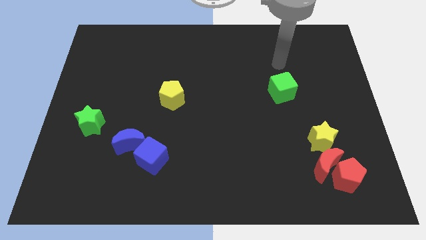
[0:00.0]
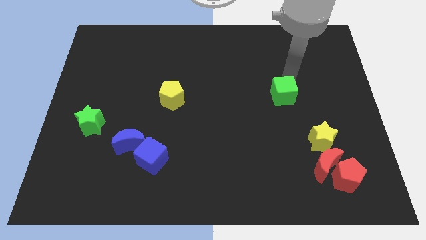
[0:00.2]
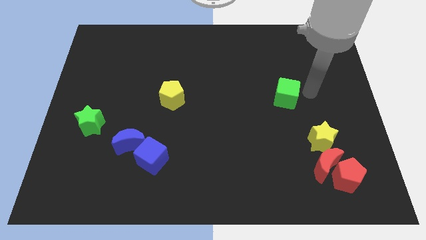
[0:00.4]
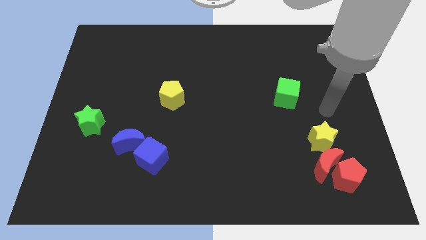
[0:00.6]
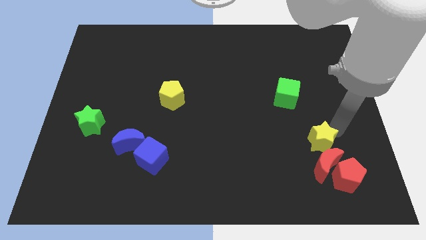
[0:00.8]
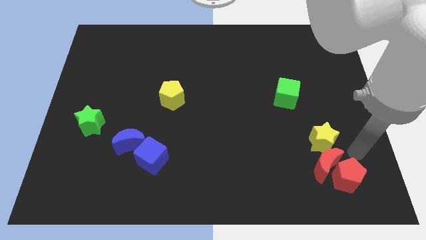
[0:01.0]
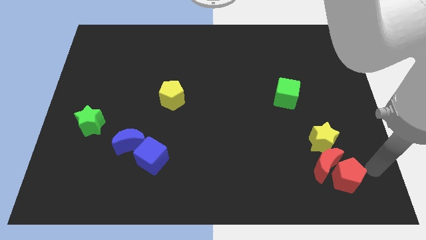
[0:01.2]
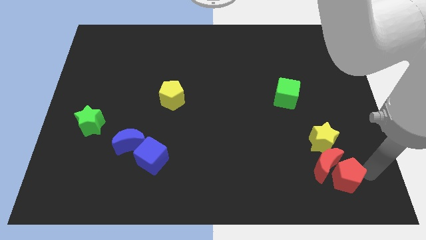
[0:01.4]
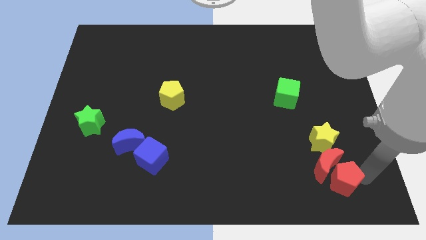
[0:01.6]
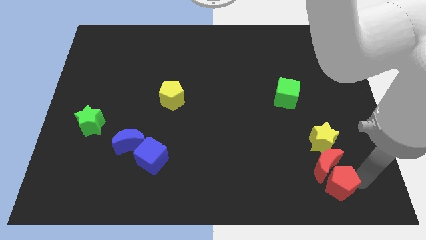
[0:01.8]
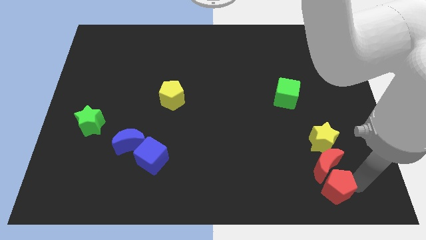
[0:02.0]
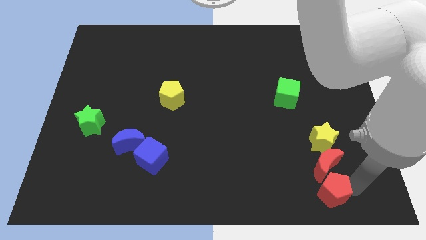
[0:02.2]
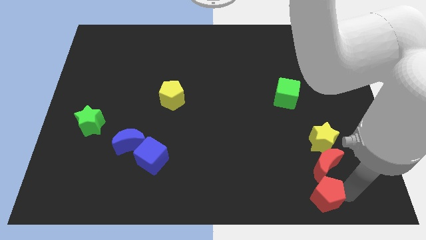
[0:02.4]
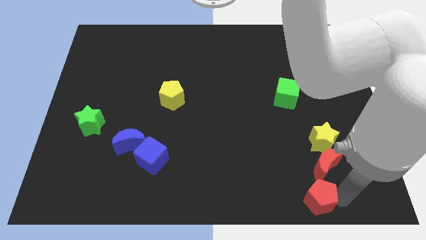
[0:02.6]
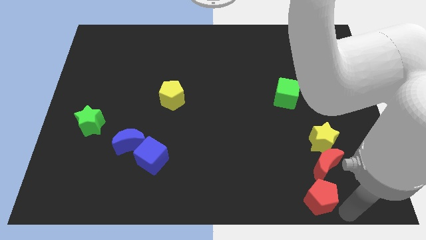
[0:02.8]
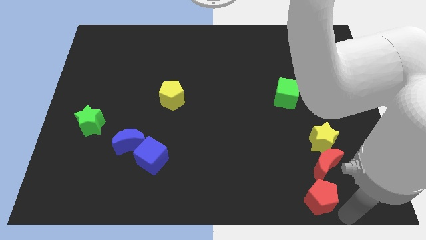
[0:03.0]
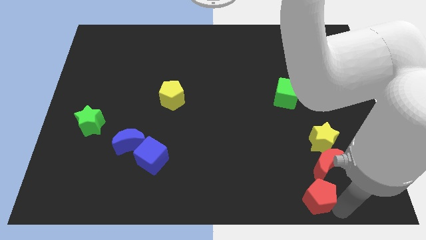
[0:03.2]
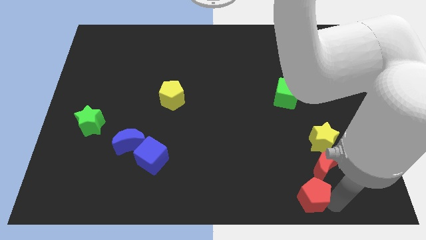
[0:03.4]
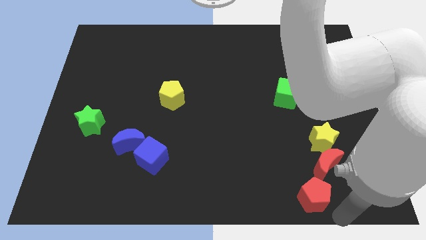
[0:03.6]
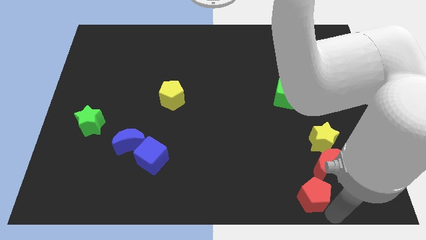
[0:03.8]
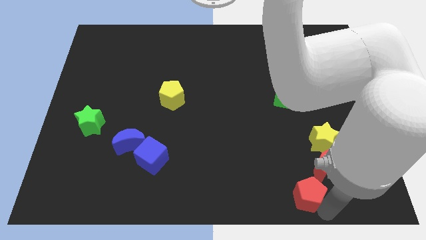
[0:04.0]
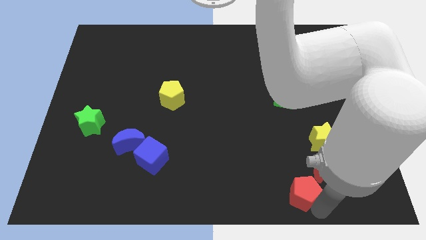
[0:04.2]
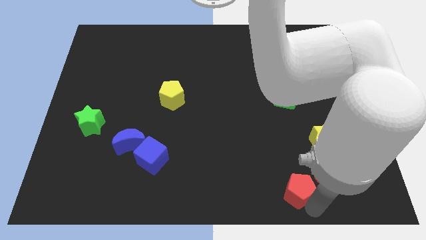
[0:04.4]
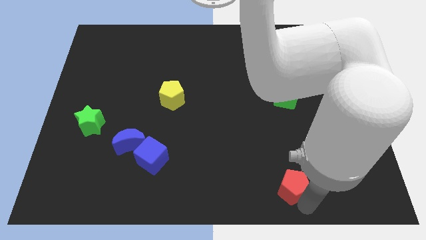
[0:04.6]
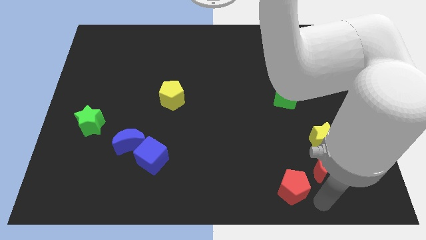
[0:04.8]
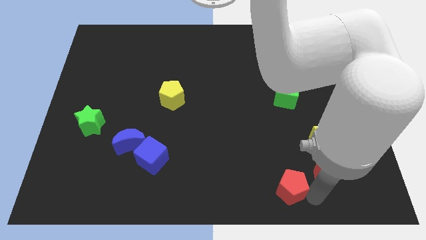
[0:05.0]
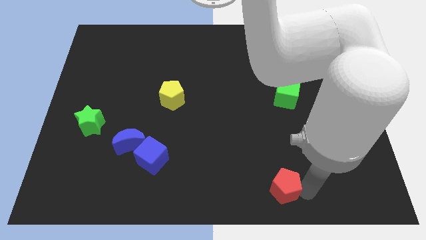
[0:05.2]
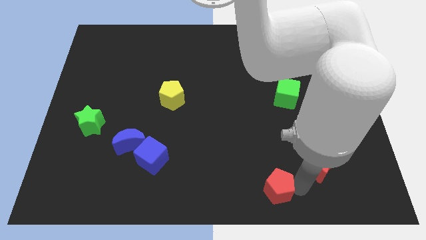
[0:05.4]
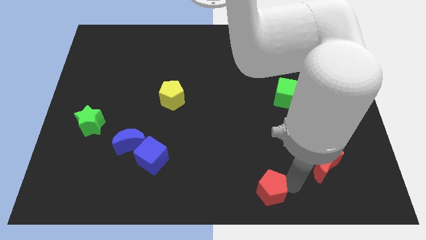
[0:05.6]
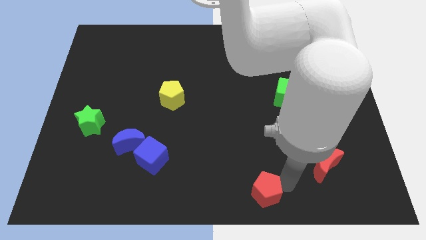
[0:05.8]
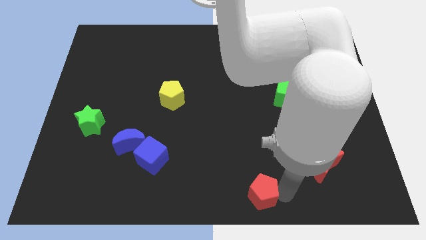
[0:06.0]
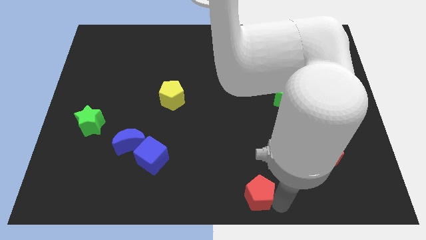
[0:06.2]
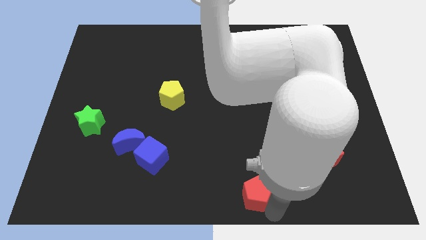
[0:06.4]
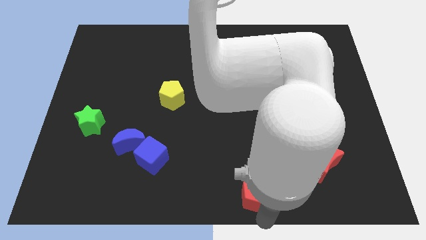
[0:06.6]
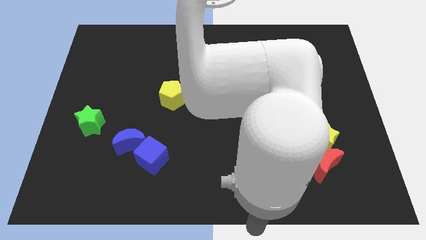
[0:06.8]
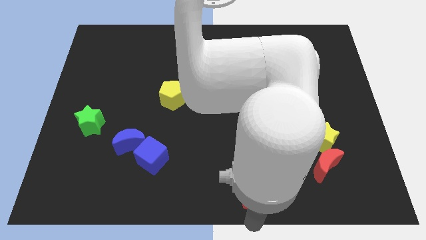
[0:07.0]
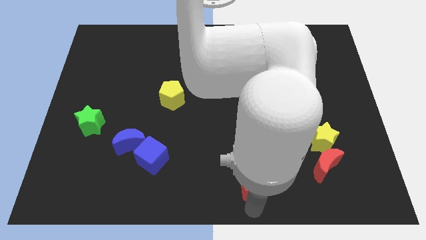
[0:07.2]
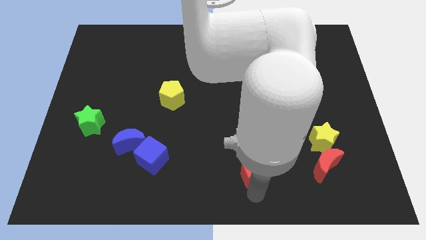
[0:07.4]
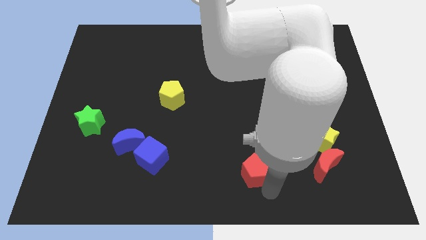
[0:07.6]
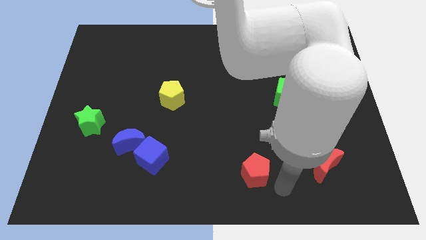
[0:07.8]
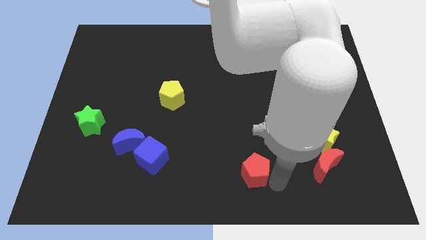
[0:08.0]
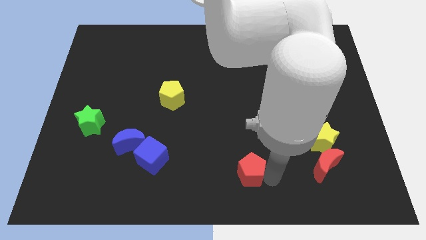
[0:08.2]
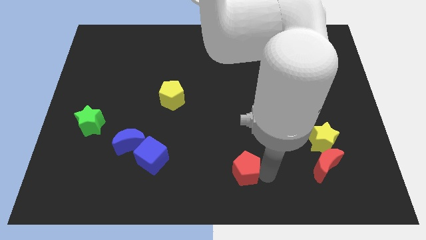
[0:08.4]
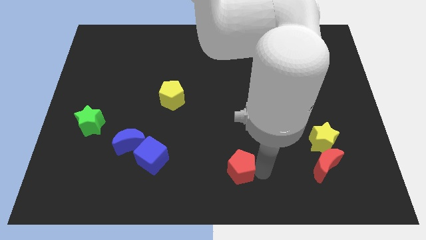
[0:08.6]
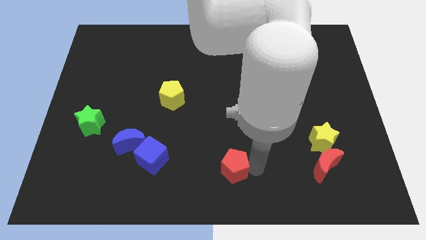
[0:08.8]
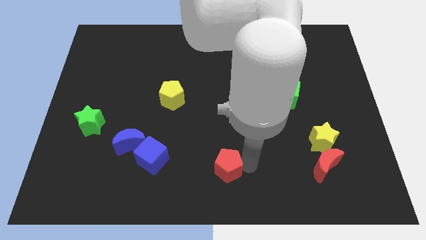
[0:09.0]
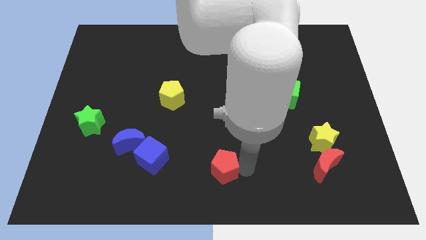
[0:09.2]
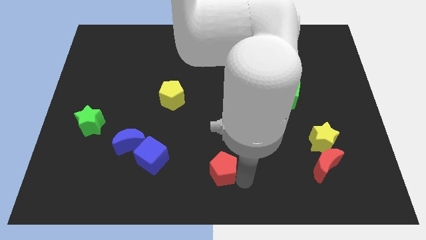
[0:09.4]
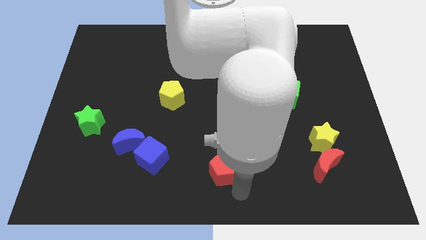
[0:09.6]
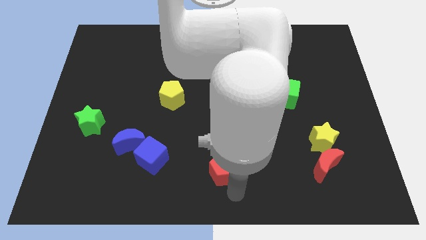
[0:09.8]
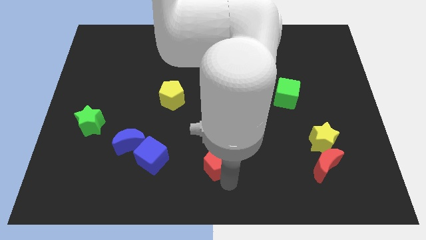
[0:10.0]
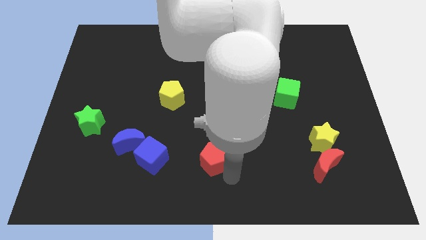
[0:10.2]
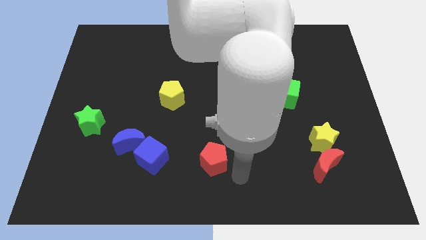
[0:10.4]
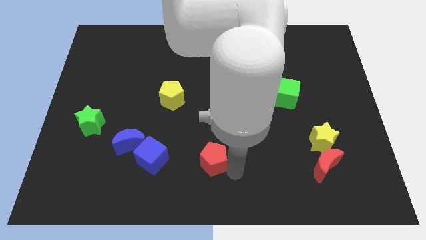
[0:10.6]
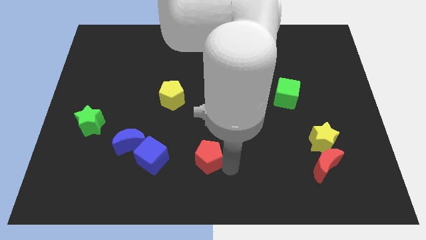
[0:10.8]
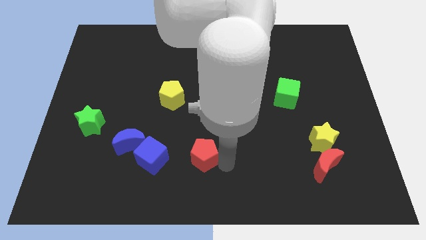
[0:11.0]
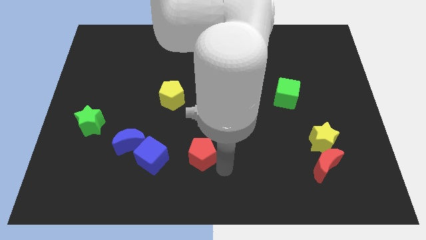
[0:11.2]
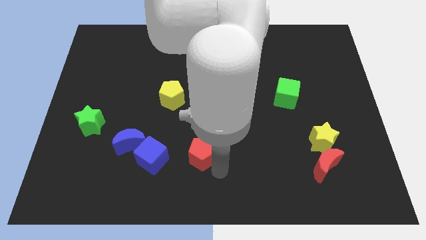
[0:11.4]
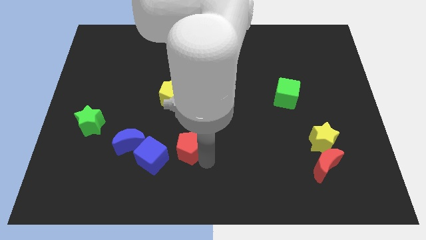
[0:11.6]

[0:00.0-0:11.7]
slide the red pentagon to the top right of the blue cube
